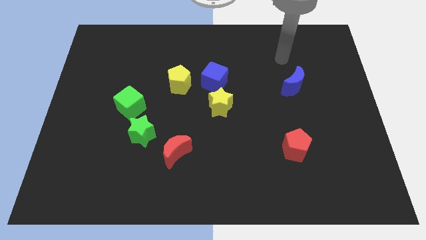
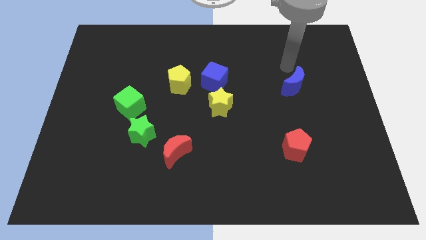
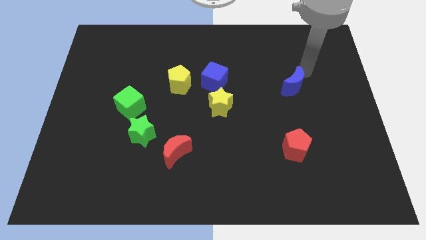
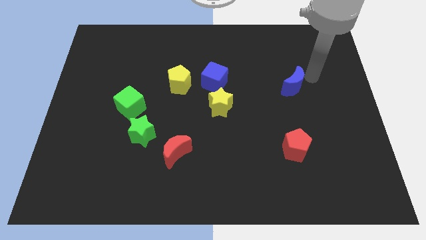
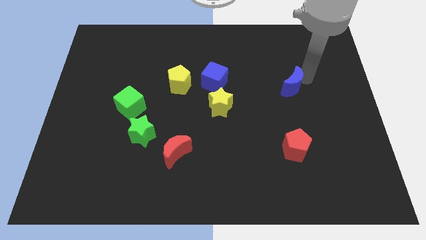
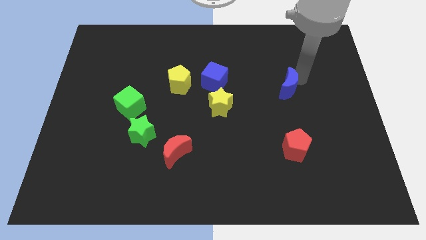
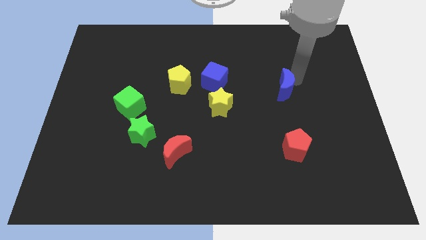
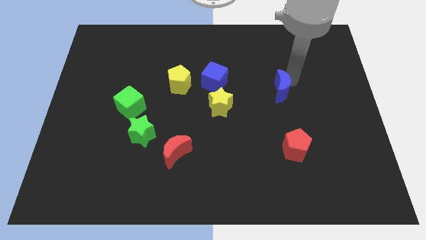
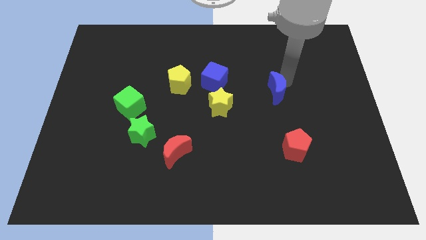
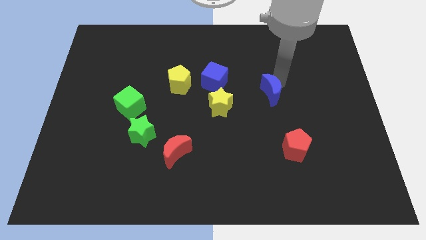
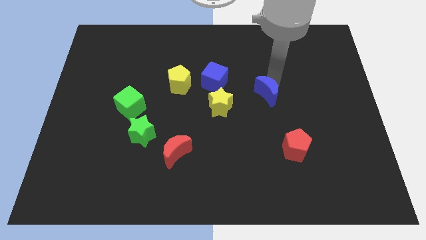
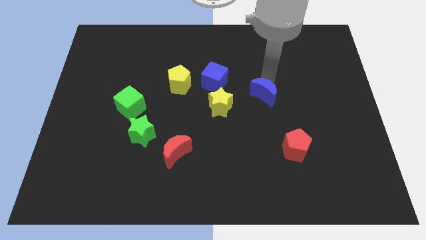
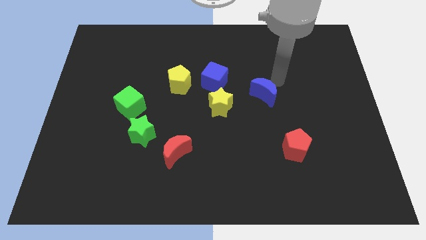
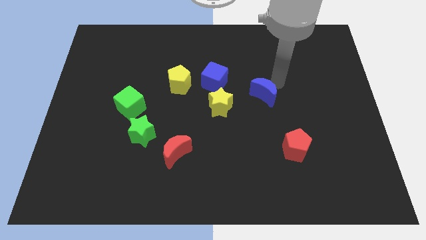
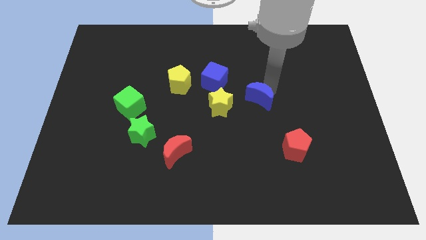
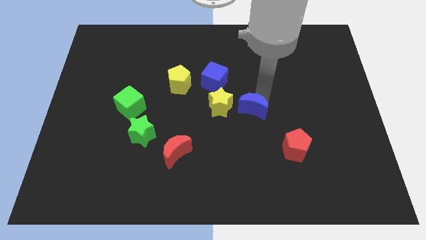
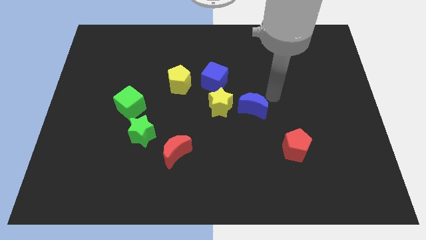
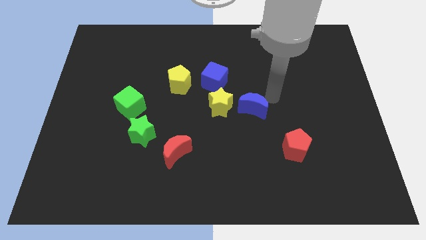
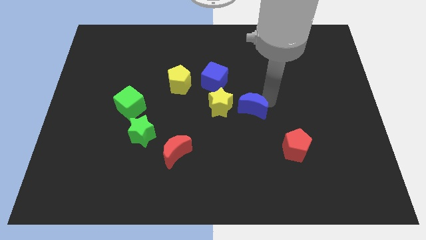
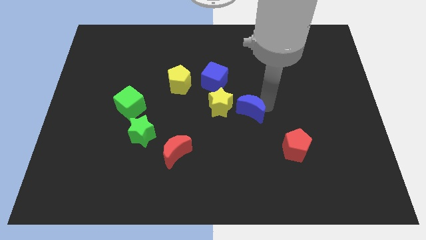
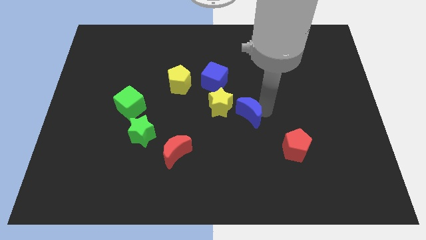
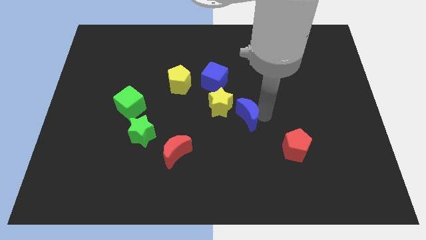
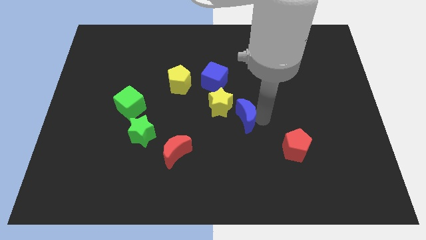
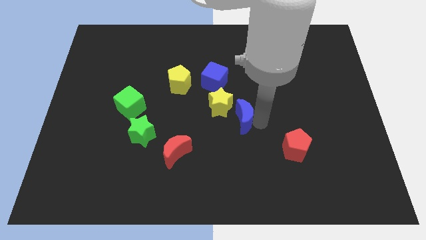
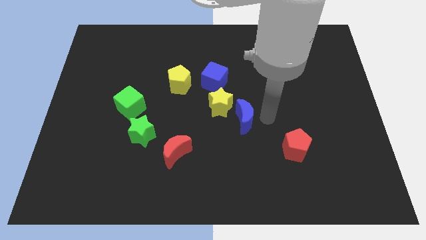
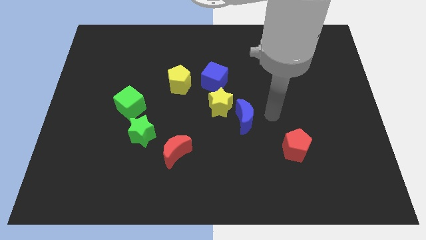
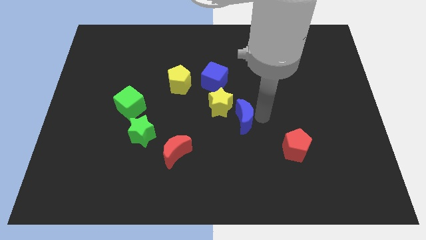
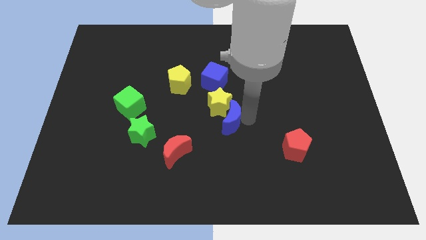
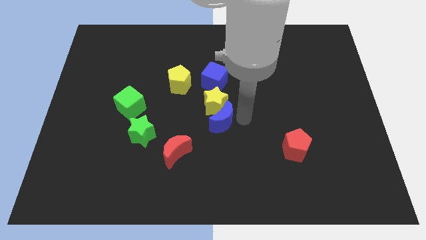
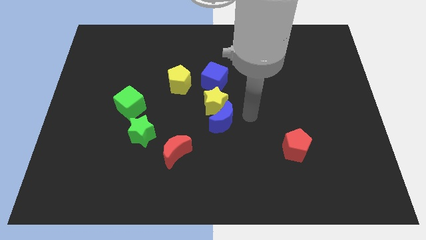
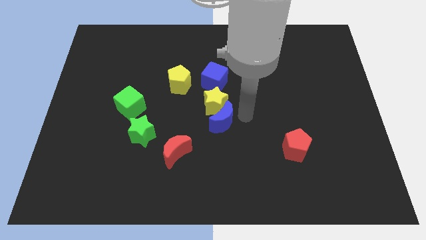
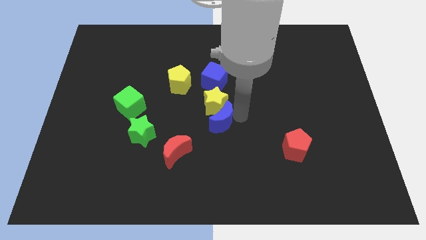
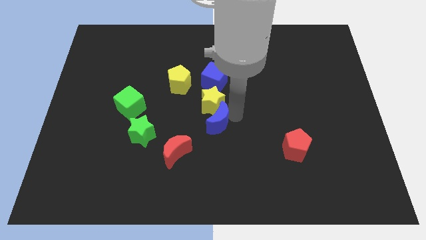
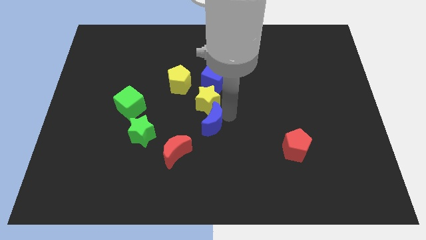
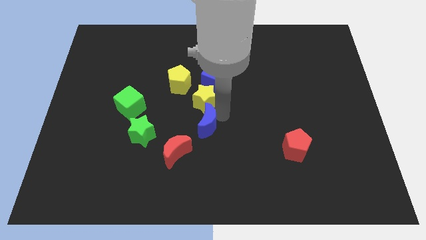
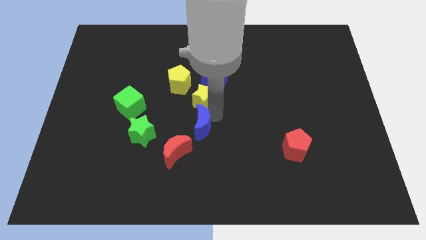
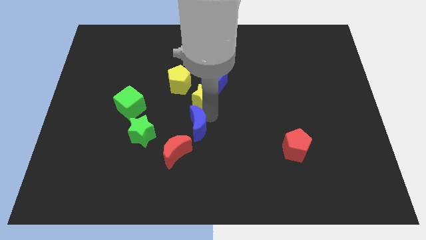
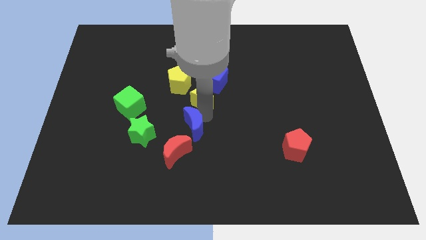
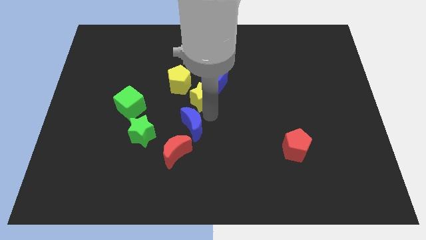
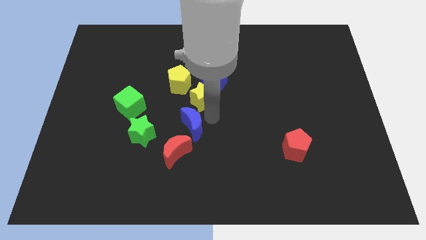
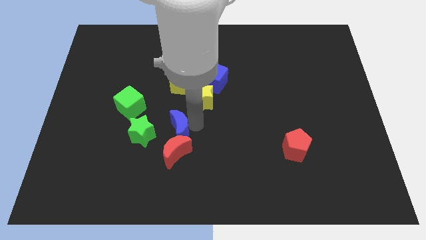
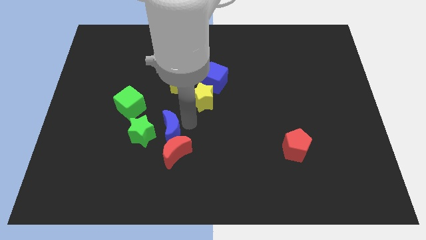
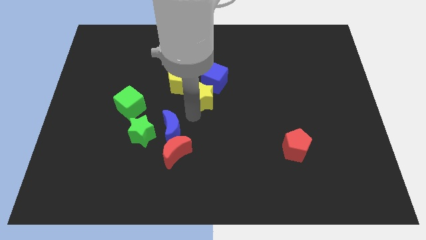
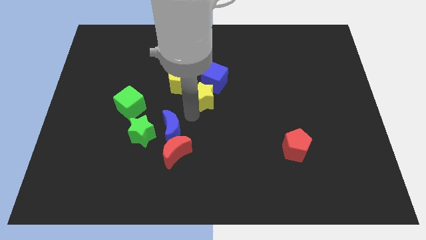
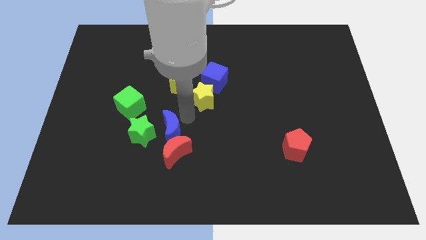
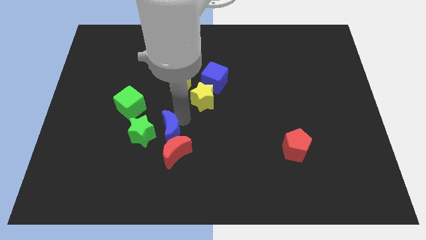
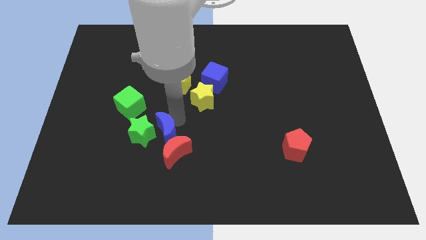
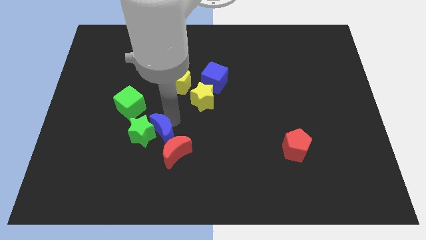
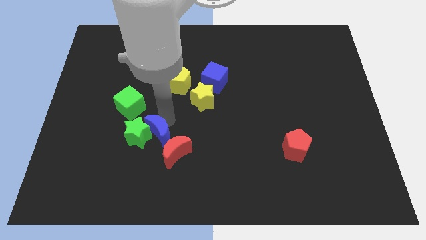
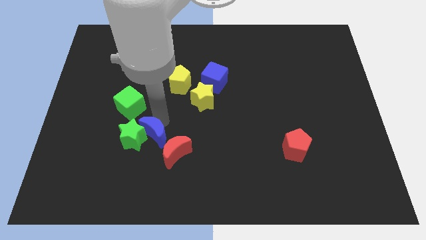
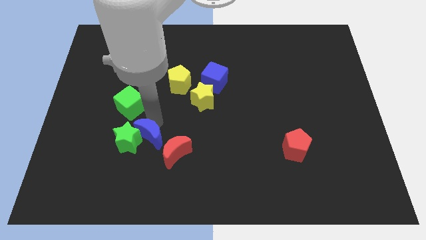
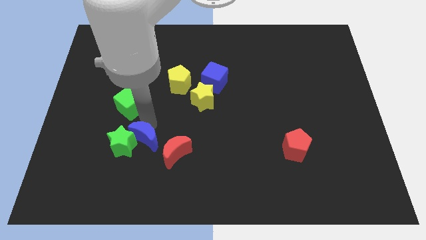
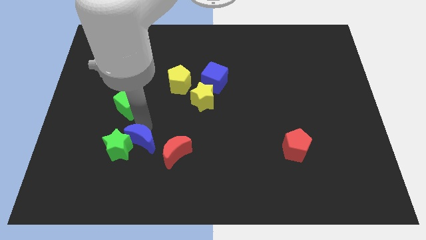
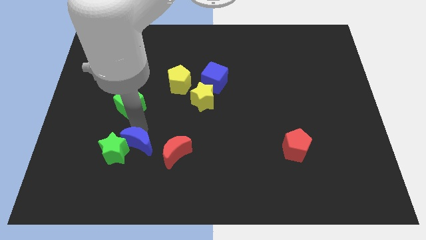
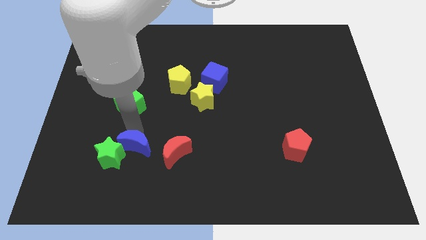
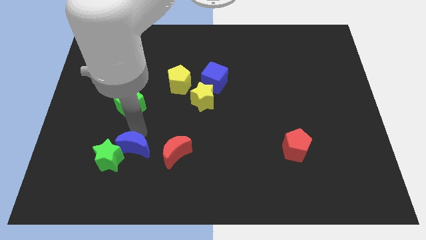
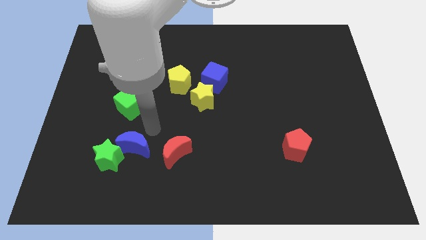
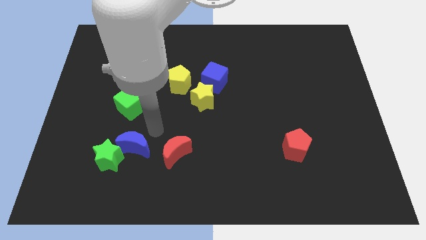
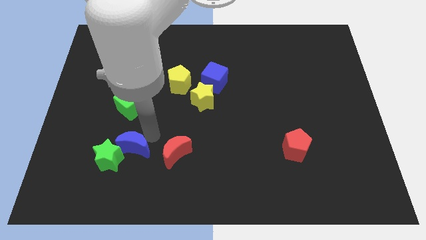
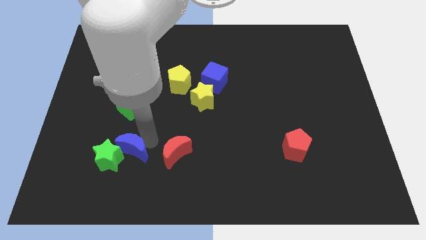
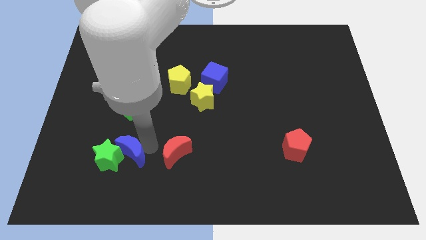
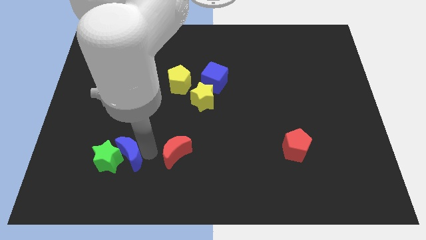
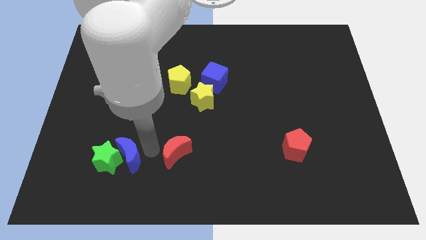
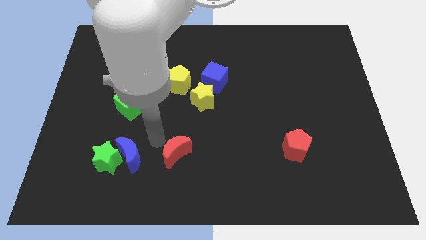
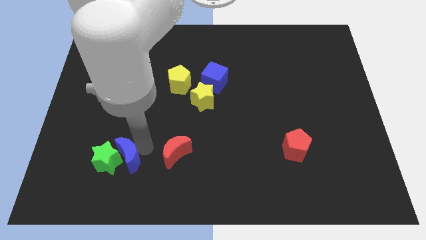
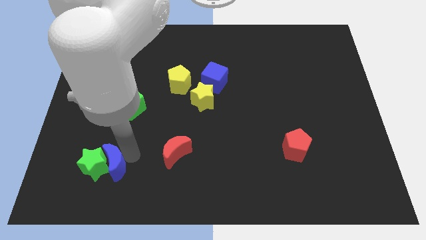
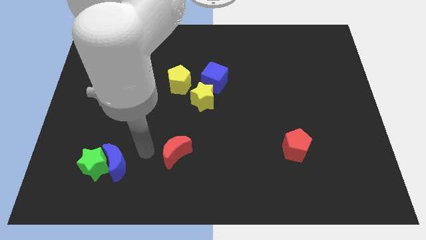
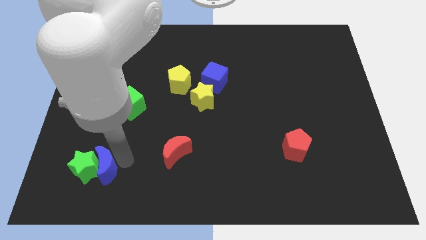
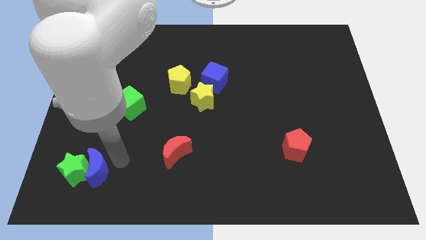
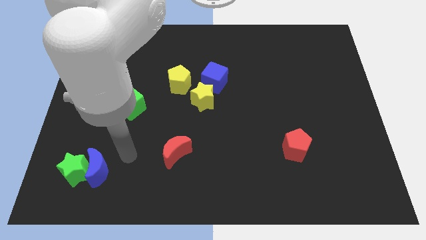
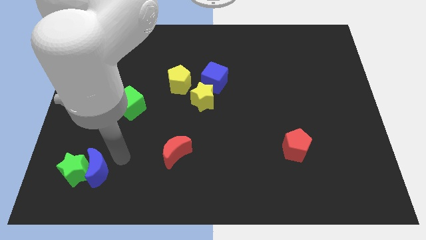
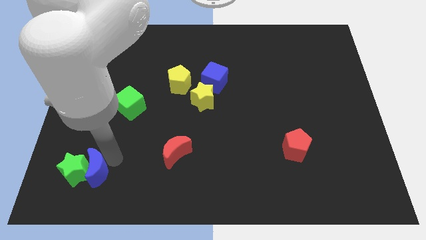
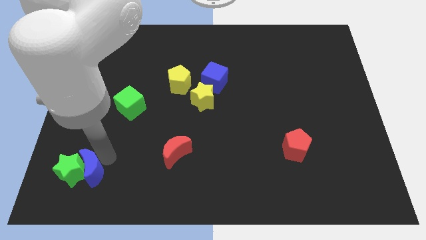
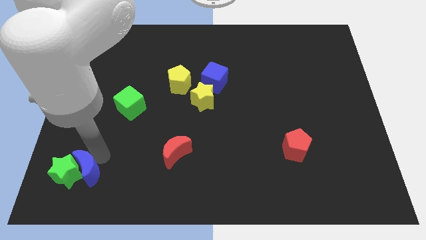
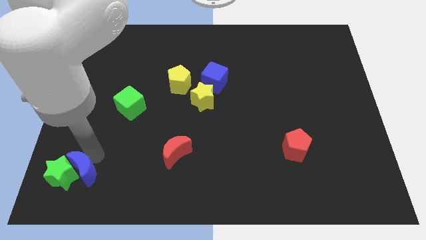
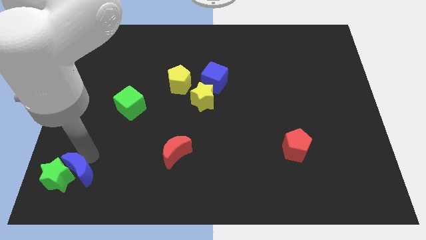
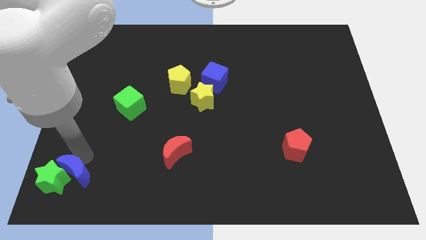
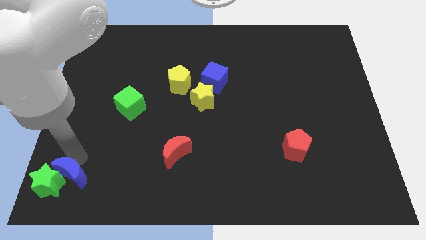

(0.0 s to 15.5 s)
put the blue moon to the bottom left
